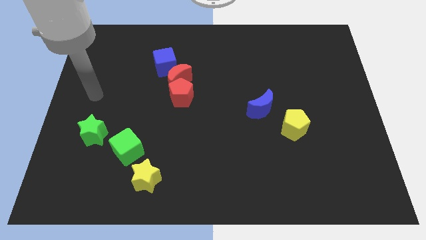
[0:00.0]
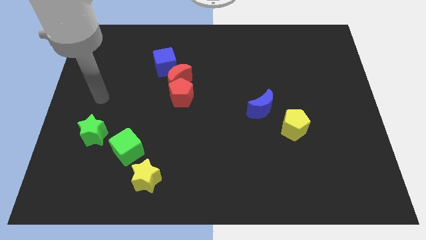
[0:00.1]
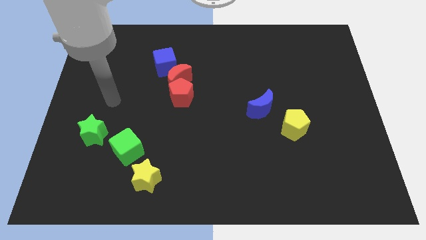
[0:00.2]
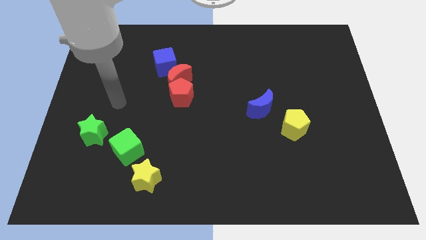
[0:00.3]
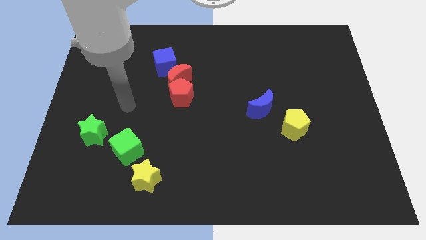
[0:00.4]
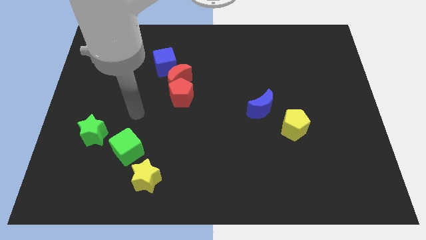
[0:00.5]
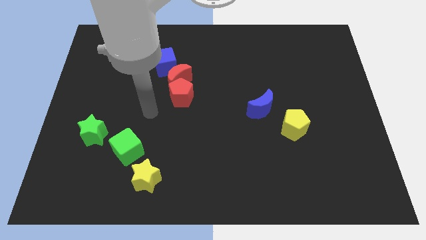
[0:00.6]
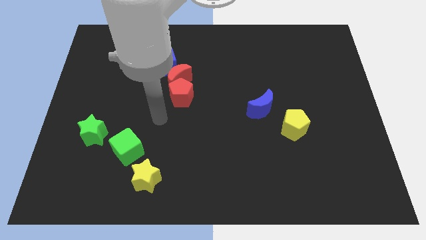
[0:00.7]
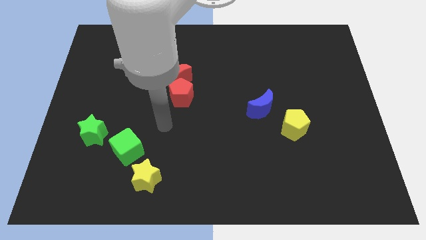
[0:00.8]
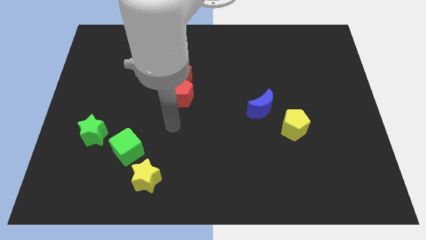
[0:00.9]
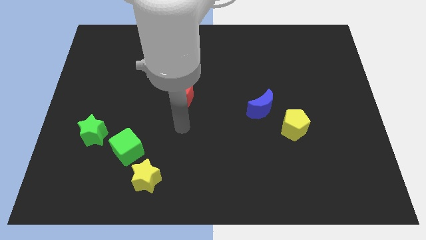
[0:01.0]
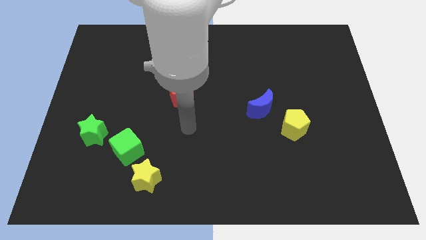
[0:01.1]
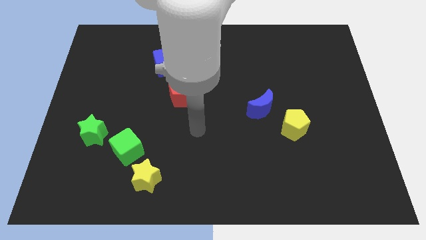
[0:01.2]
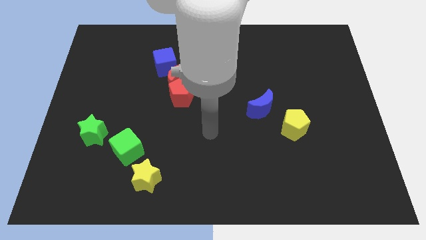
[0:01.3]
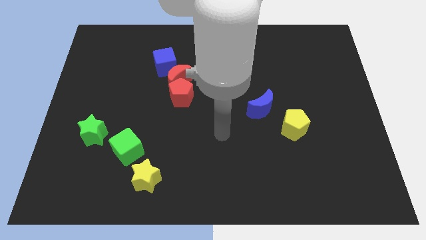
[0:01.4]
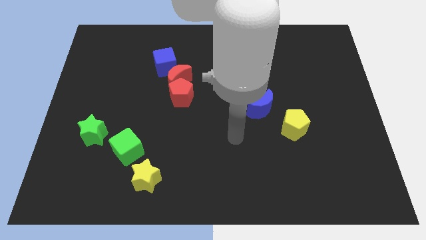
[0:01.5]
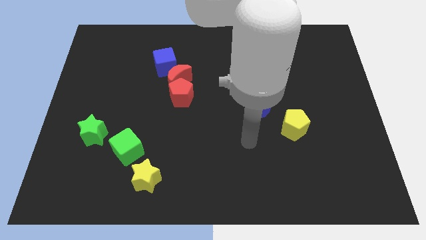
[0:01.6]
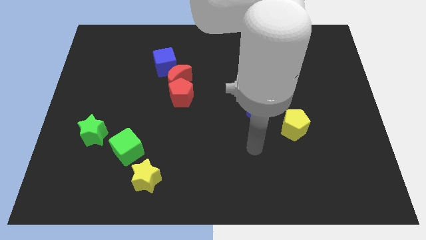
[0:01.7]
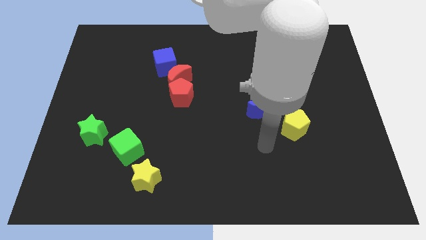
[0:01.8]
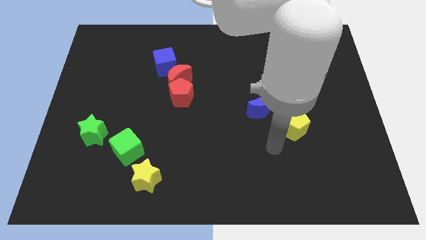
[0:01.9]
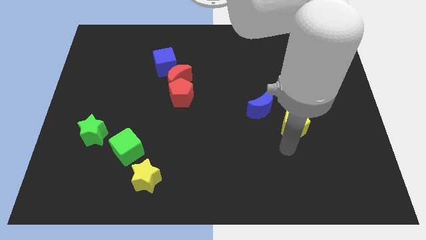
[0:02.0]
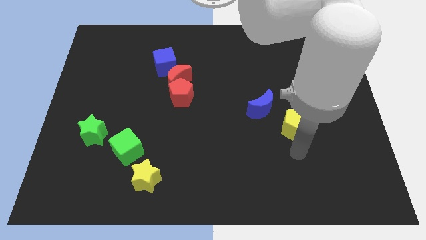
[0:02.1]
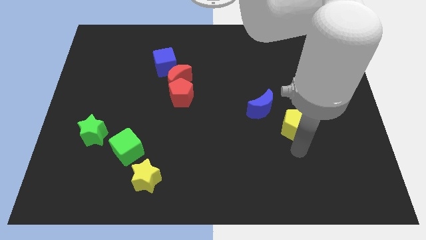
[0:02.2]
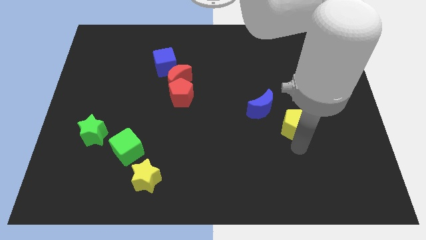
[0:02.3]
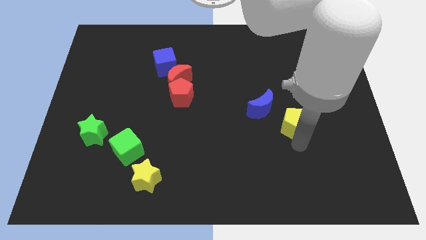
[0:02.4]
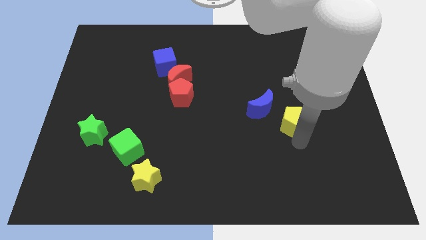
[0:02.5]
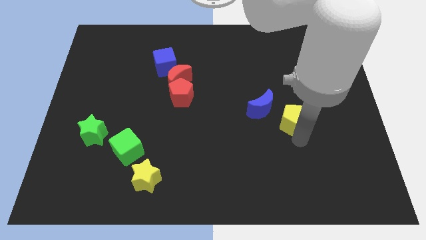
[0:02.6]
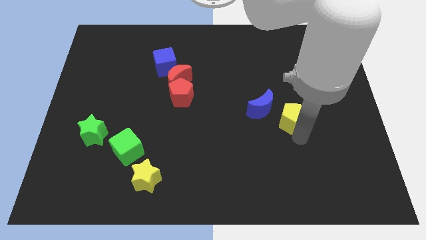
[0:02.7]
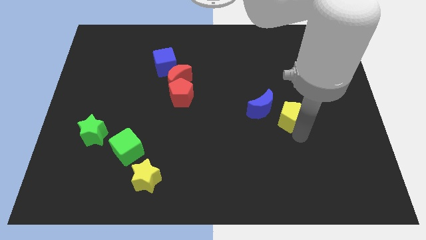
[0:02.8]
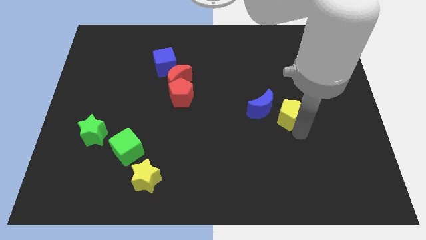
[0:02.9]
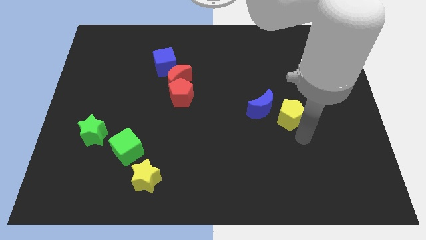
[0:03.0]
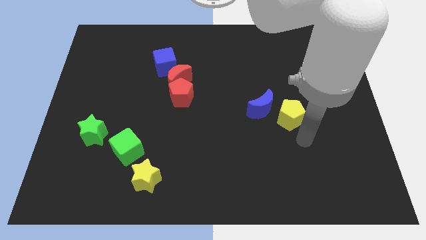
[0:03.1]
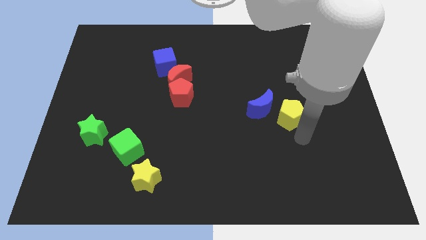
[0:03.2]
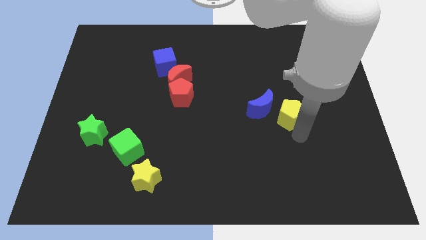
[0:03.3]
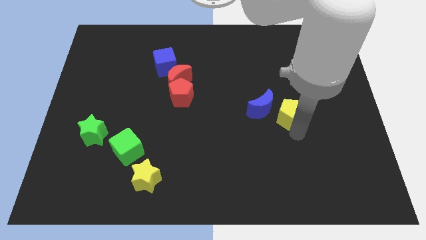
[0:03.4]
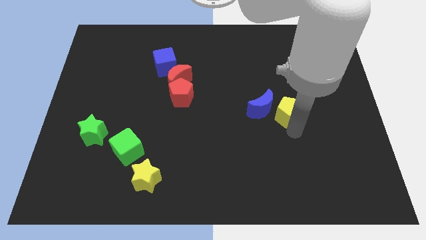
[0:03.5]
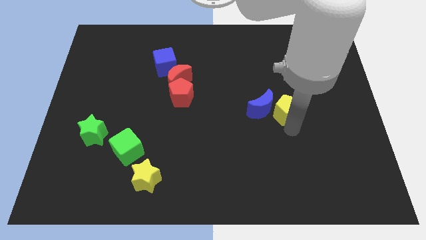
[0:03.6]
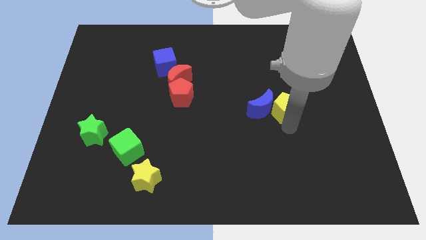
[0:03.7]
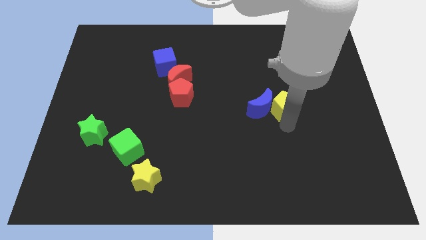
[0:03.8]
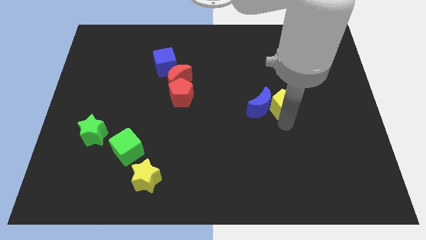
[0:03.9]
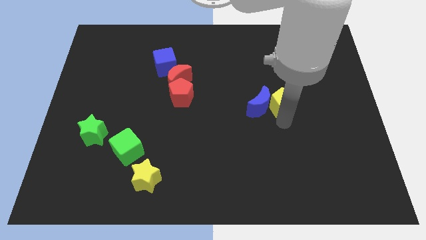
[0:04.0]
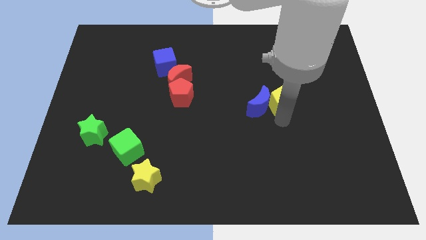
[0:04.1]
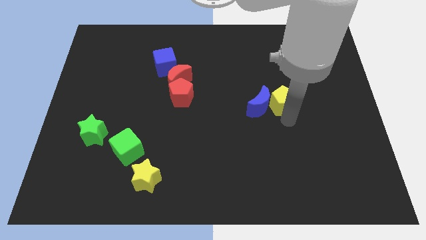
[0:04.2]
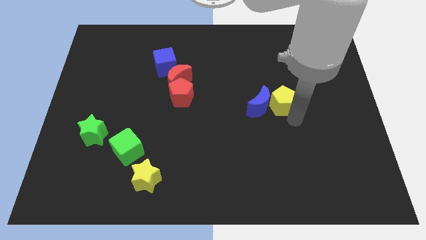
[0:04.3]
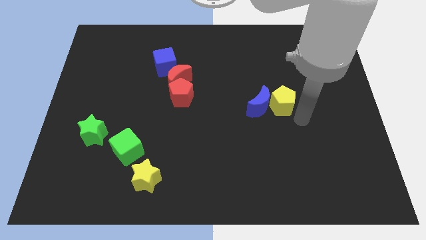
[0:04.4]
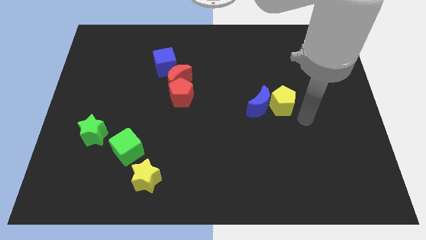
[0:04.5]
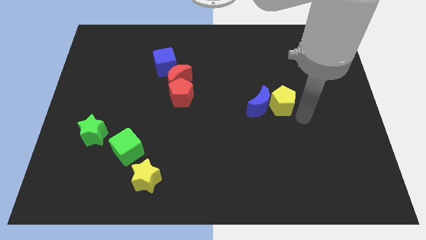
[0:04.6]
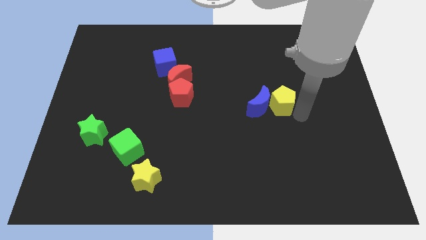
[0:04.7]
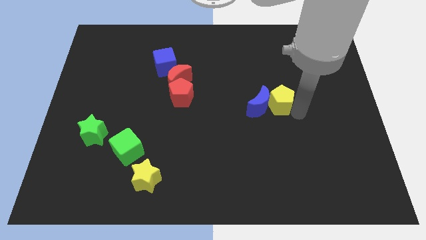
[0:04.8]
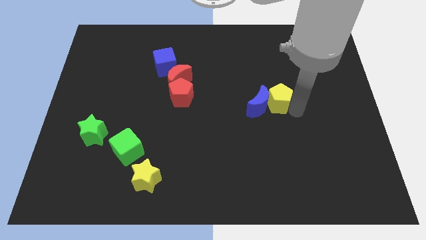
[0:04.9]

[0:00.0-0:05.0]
move the yellow pentagon a little upwards and to the left

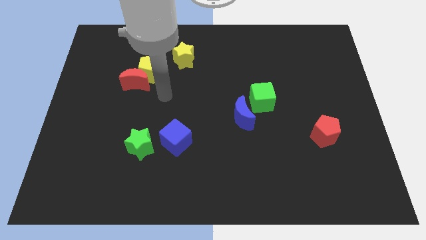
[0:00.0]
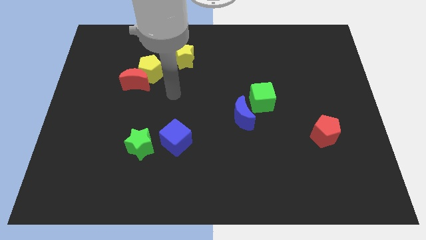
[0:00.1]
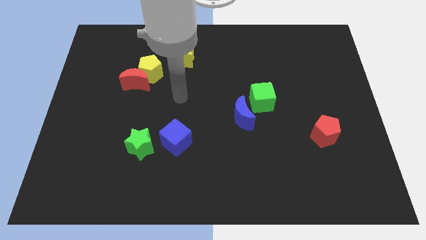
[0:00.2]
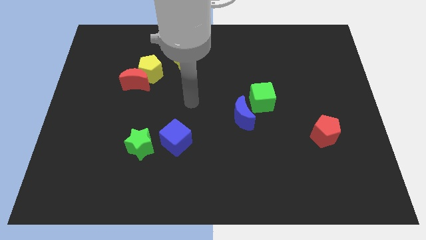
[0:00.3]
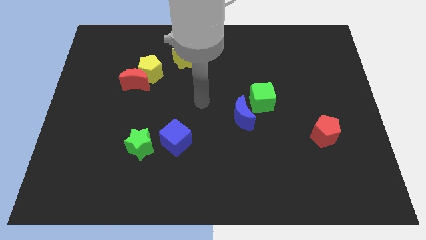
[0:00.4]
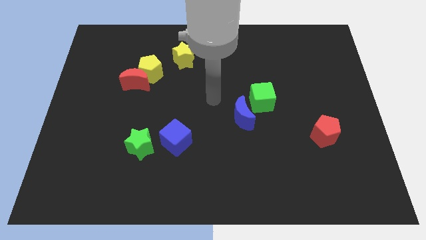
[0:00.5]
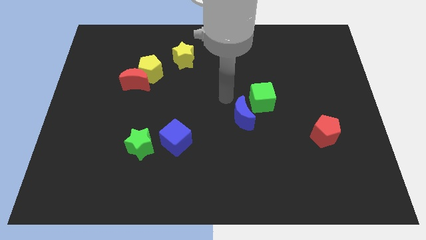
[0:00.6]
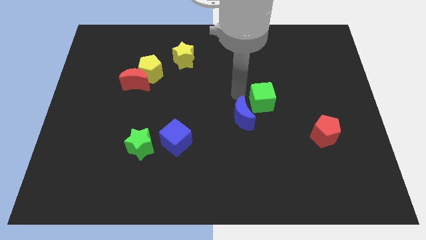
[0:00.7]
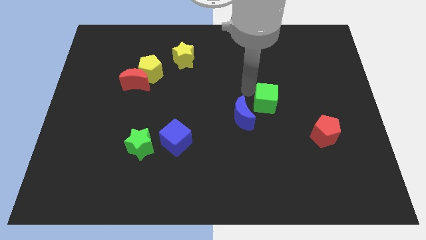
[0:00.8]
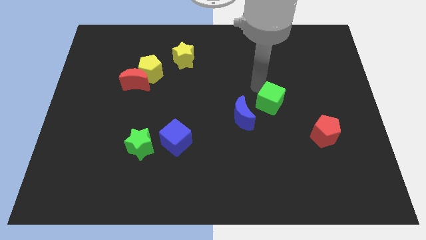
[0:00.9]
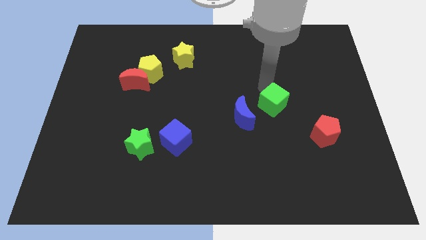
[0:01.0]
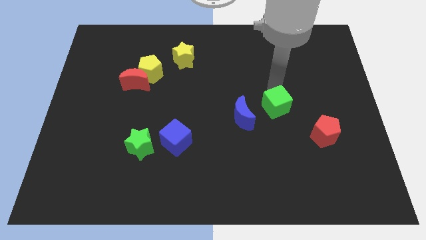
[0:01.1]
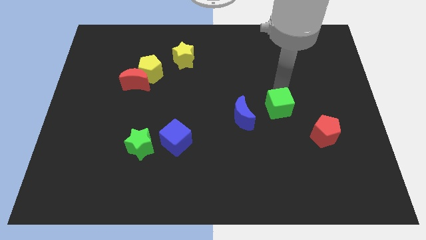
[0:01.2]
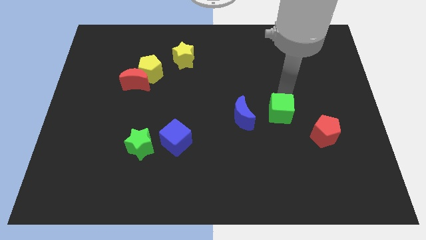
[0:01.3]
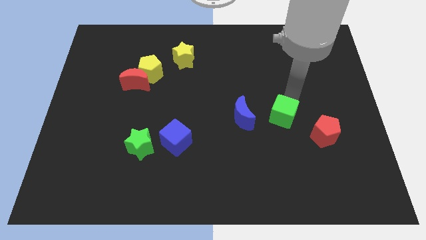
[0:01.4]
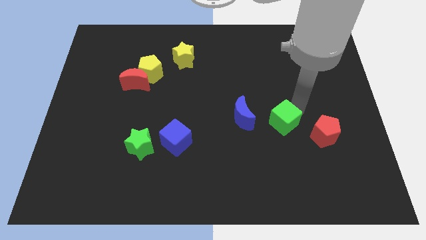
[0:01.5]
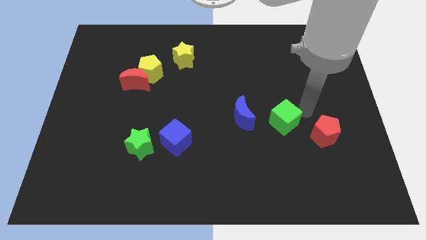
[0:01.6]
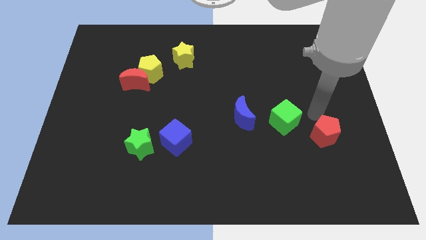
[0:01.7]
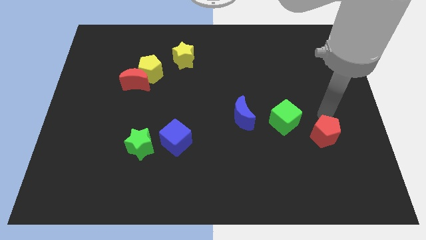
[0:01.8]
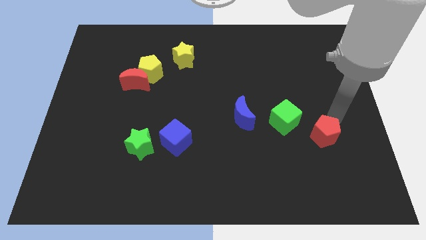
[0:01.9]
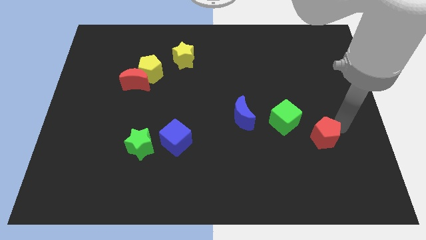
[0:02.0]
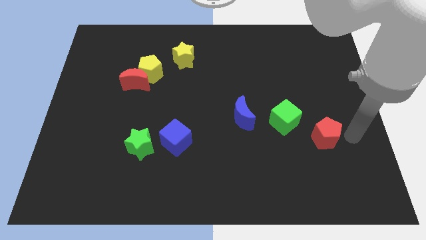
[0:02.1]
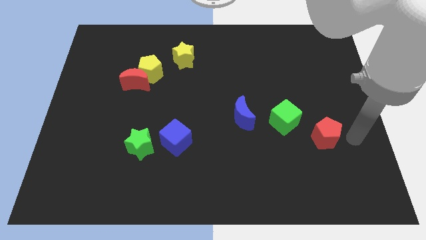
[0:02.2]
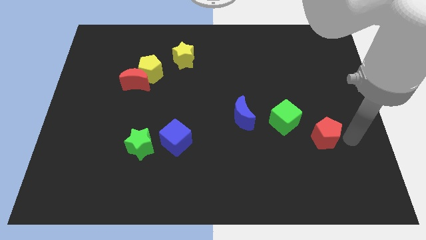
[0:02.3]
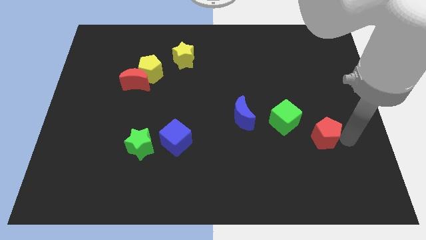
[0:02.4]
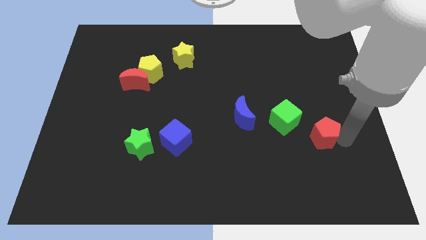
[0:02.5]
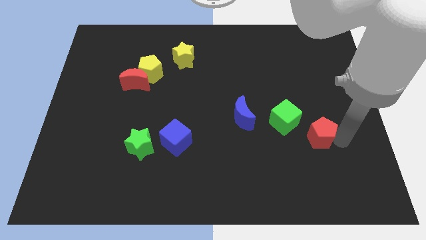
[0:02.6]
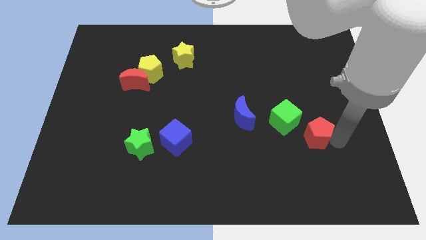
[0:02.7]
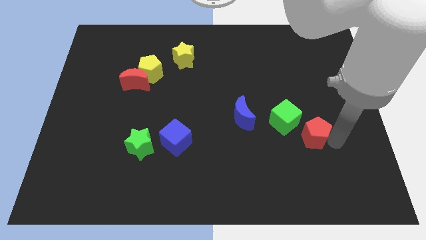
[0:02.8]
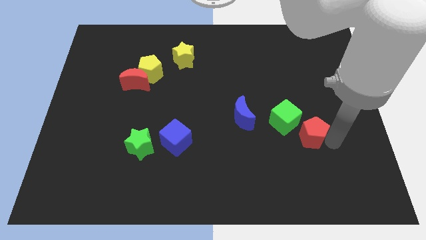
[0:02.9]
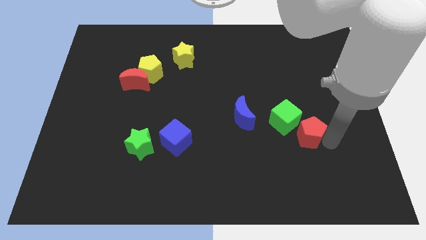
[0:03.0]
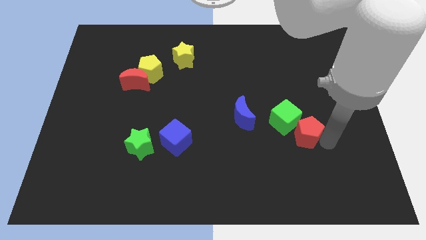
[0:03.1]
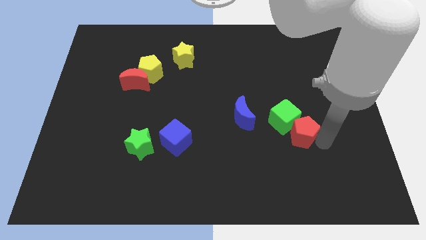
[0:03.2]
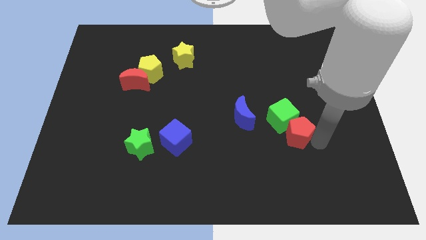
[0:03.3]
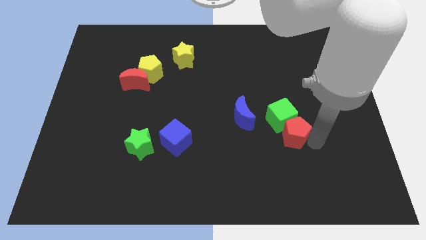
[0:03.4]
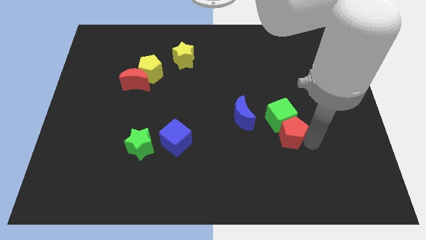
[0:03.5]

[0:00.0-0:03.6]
slightly slide the red pentagon to the left
